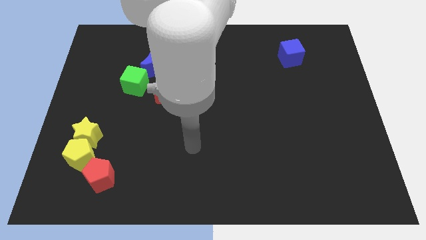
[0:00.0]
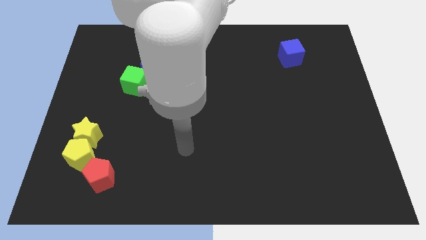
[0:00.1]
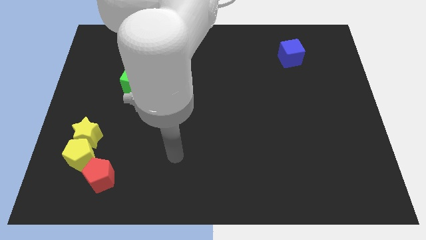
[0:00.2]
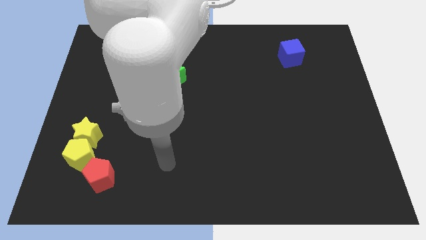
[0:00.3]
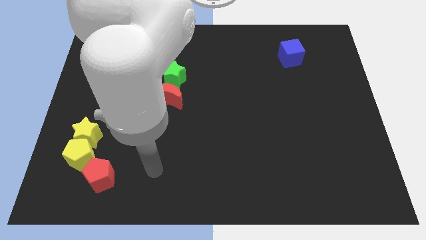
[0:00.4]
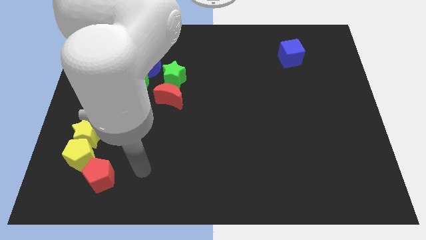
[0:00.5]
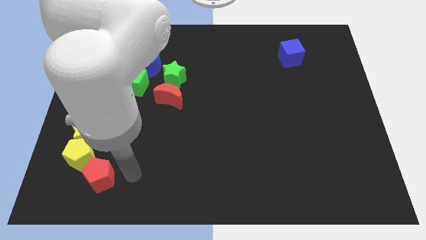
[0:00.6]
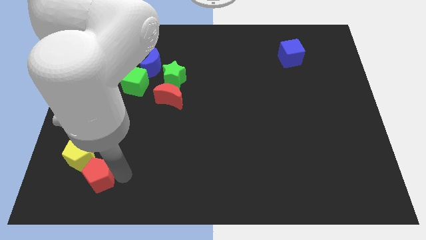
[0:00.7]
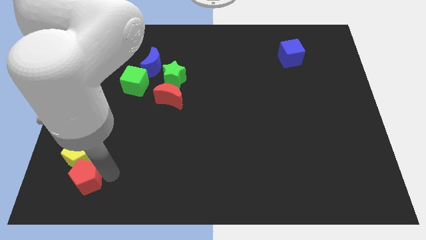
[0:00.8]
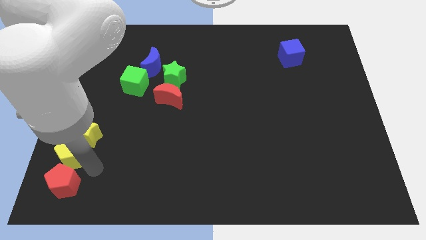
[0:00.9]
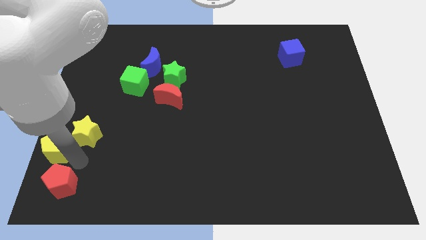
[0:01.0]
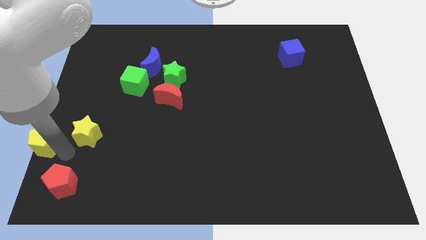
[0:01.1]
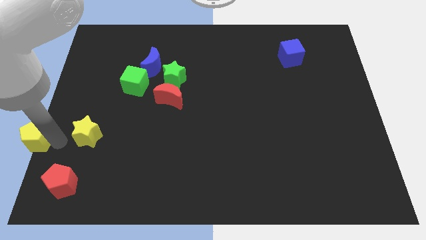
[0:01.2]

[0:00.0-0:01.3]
pull the yellow star apart from the yellow pentagon

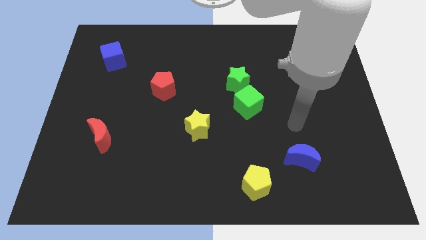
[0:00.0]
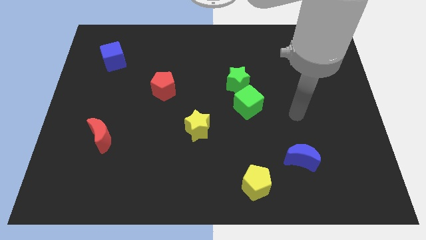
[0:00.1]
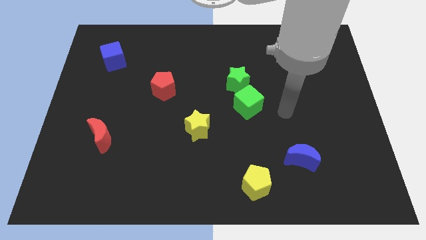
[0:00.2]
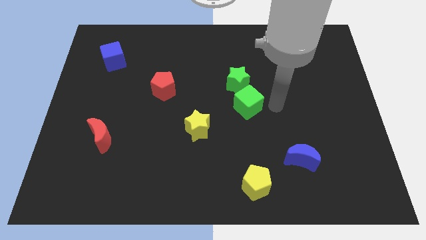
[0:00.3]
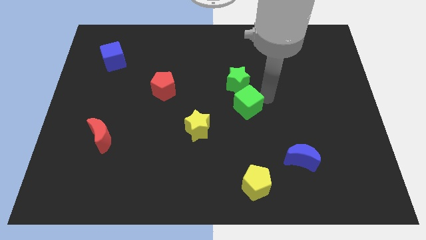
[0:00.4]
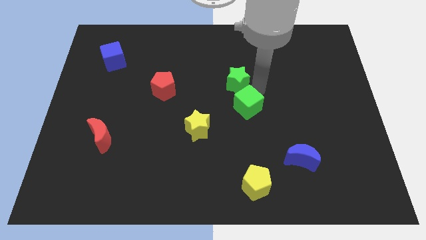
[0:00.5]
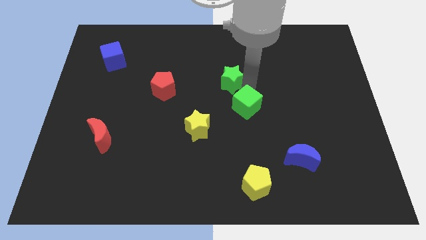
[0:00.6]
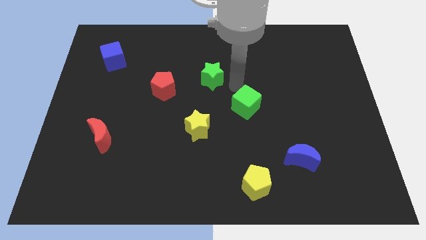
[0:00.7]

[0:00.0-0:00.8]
pull the green cube apart from the green star

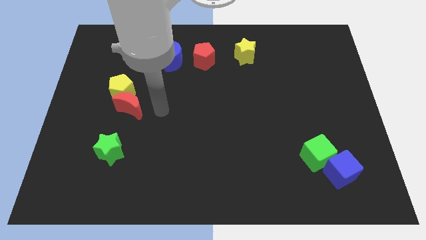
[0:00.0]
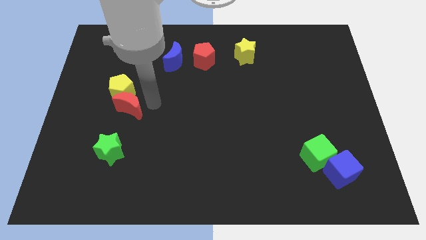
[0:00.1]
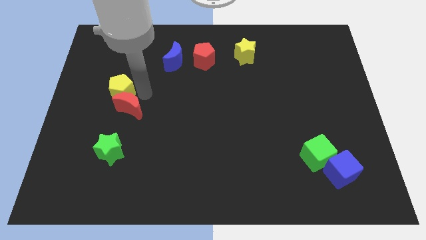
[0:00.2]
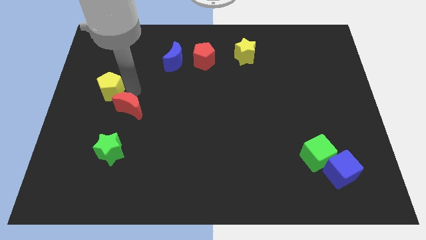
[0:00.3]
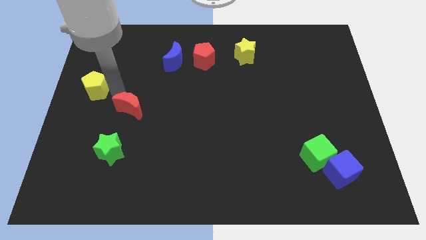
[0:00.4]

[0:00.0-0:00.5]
move the red moon away from the yellow pentagon

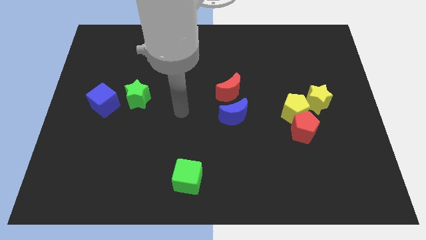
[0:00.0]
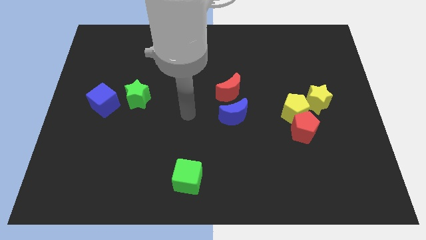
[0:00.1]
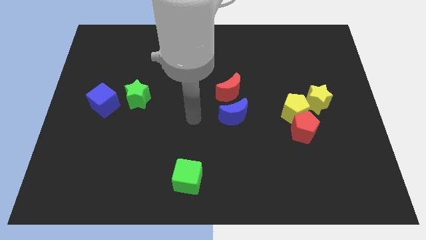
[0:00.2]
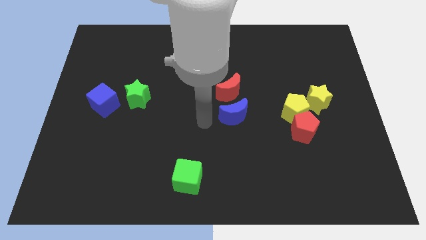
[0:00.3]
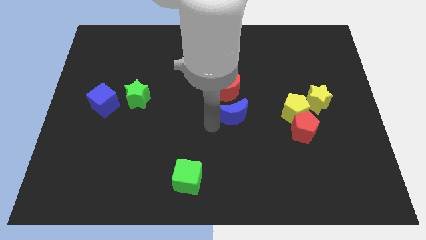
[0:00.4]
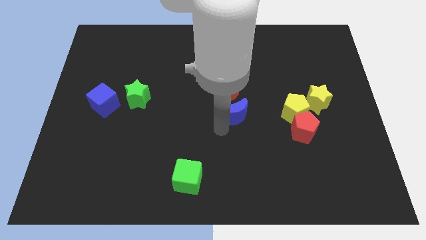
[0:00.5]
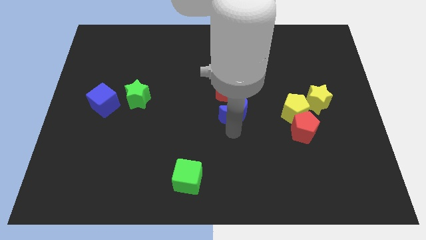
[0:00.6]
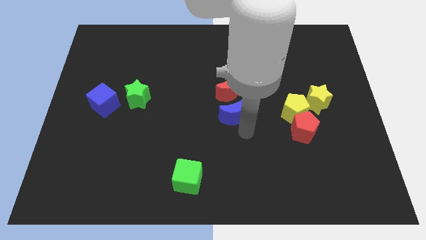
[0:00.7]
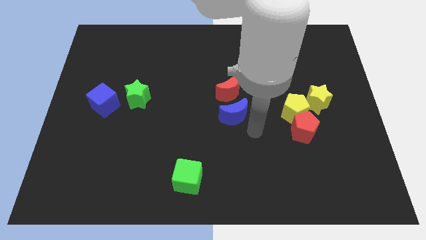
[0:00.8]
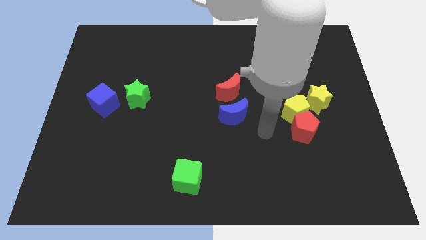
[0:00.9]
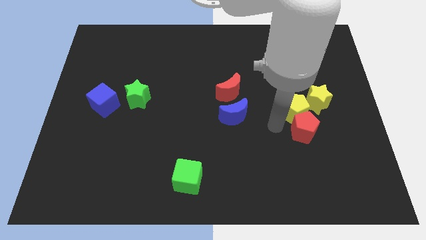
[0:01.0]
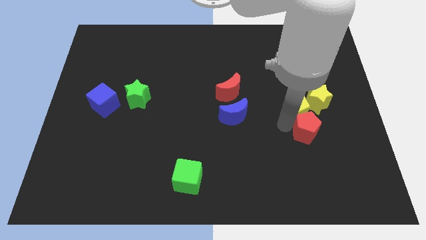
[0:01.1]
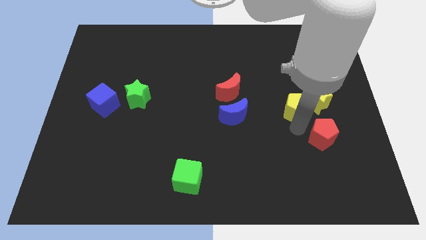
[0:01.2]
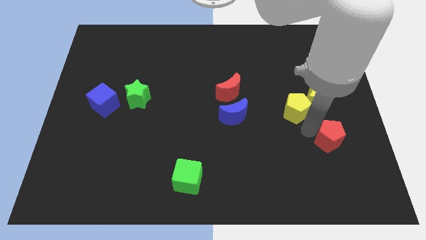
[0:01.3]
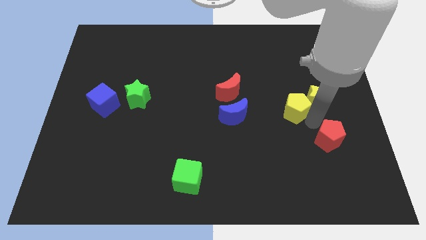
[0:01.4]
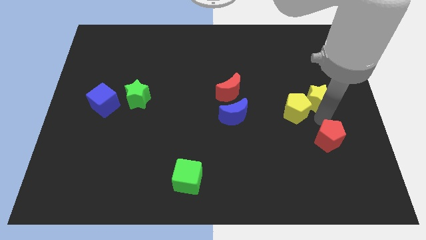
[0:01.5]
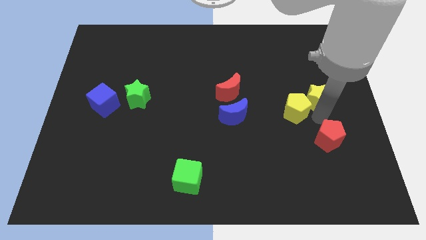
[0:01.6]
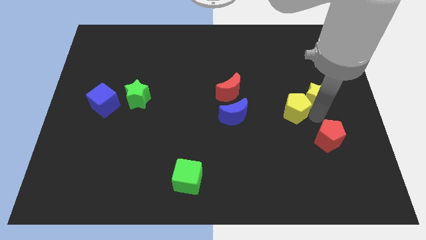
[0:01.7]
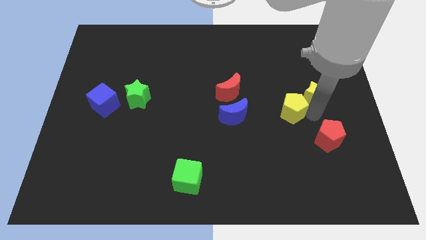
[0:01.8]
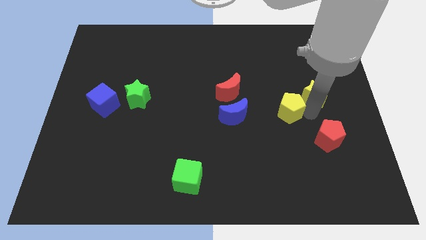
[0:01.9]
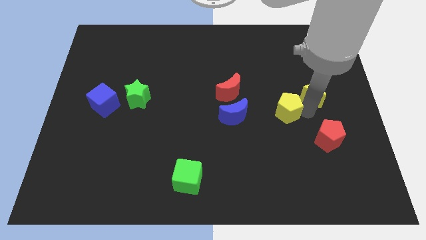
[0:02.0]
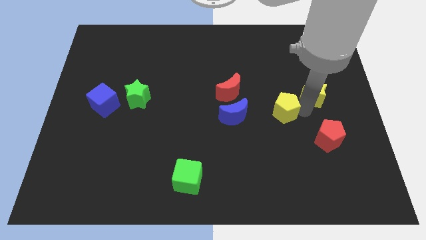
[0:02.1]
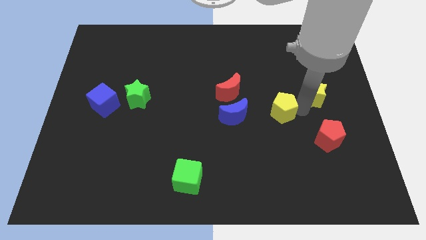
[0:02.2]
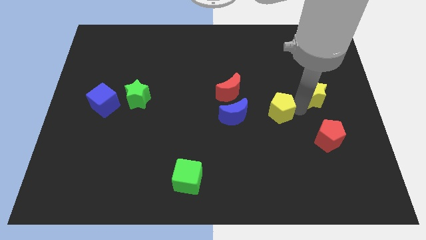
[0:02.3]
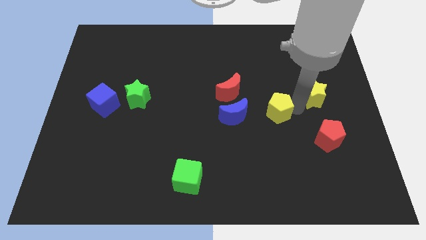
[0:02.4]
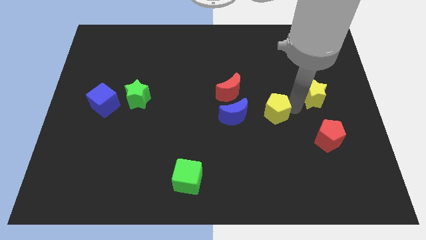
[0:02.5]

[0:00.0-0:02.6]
separate the yellow pentagon from the red pentagon and yellow star

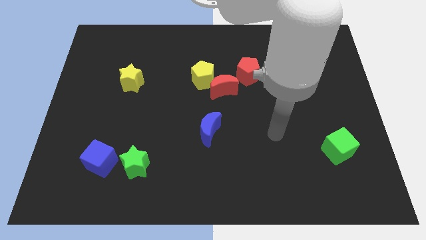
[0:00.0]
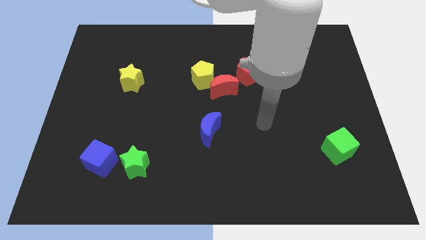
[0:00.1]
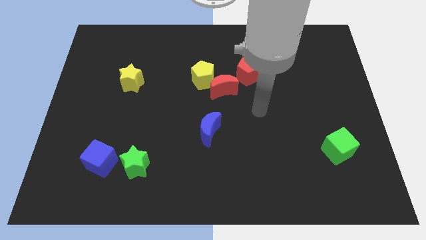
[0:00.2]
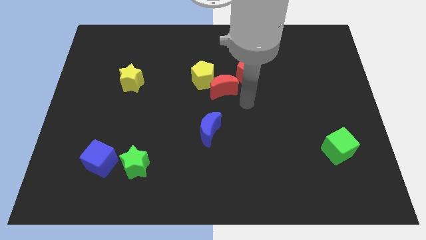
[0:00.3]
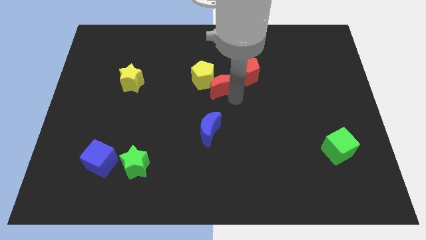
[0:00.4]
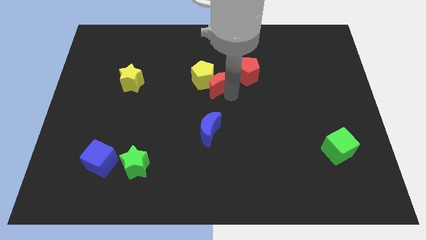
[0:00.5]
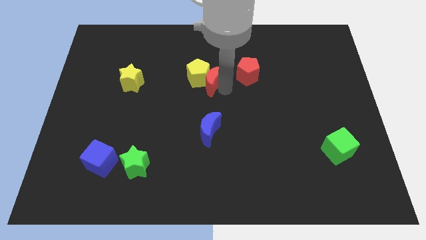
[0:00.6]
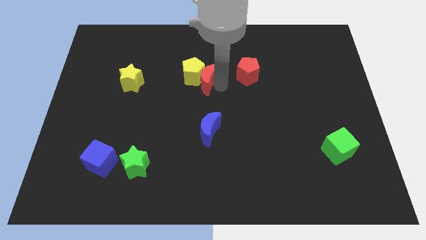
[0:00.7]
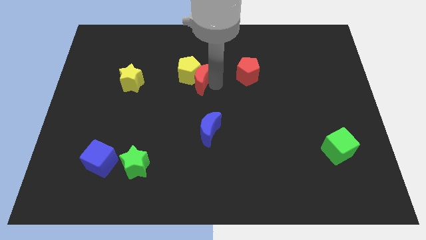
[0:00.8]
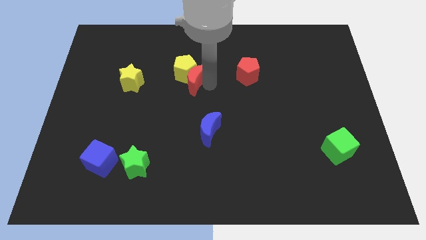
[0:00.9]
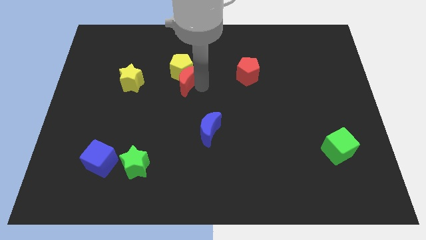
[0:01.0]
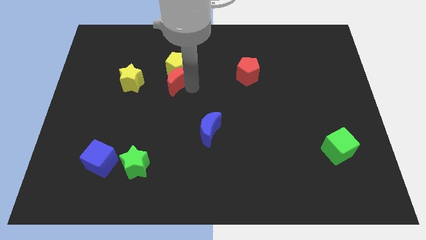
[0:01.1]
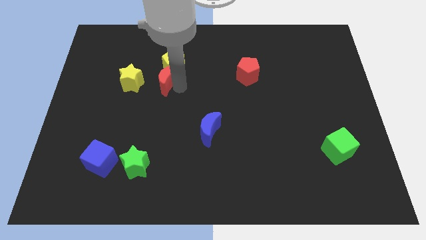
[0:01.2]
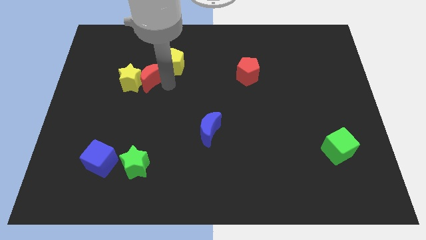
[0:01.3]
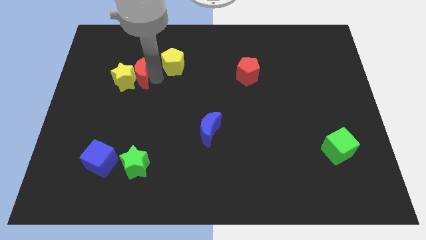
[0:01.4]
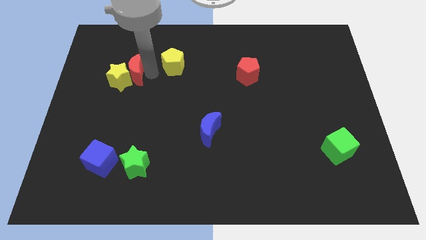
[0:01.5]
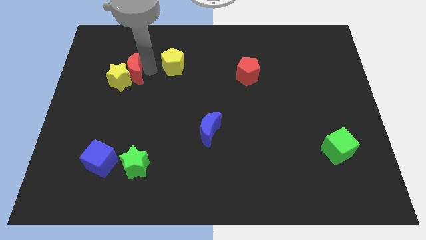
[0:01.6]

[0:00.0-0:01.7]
pull the yellow pentagon apart from the red moon

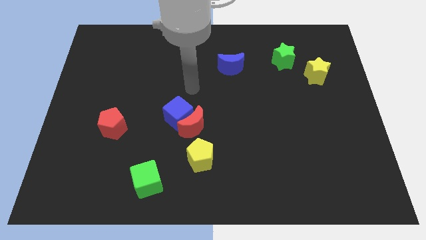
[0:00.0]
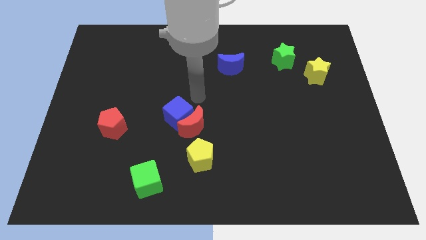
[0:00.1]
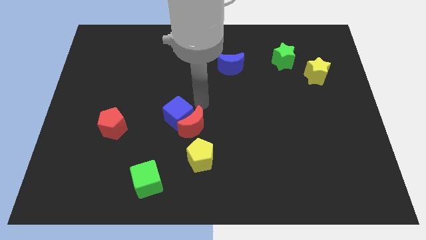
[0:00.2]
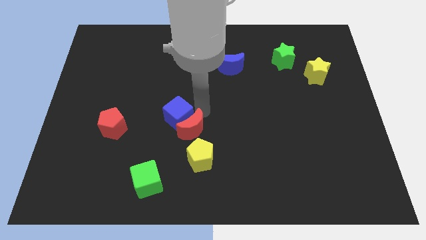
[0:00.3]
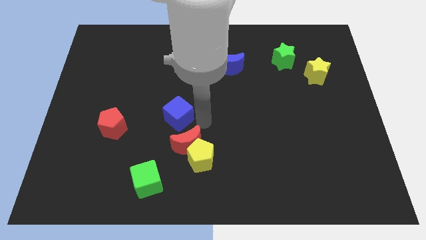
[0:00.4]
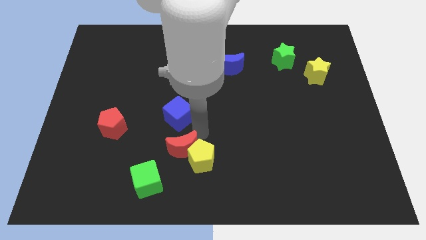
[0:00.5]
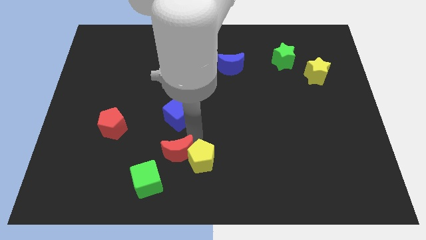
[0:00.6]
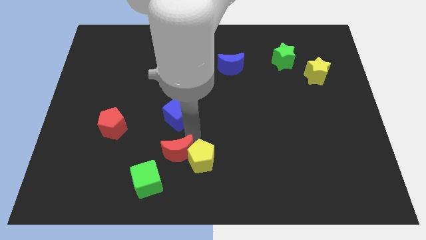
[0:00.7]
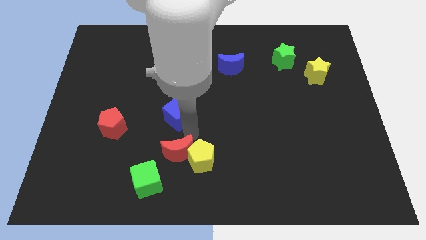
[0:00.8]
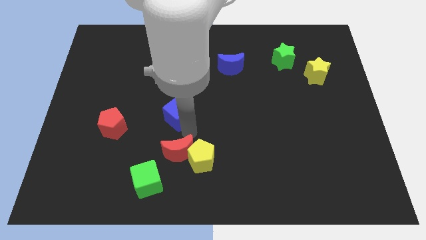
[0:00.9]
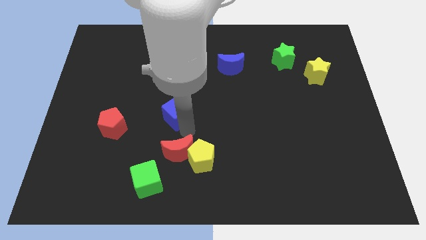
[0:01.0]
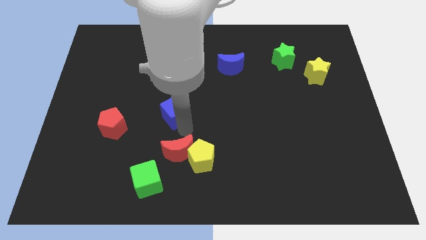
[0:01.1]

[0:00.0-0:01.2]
move the blue cube away from the red moon

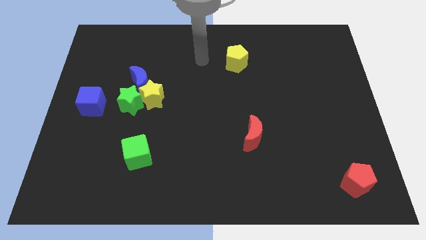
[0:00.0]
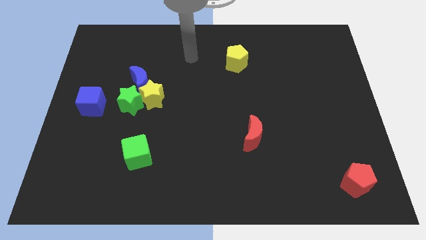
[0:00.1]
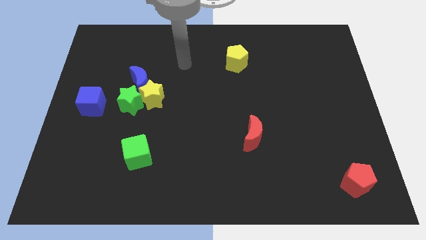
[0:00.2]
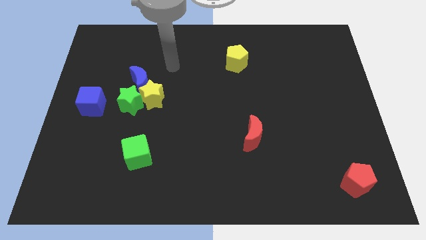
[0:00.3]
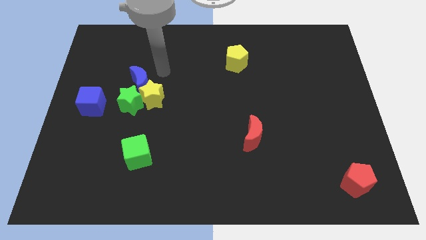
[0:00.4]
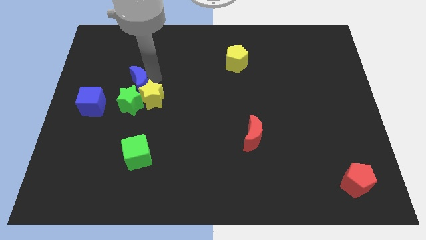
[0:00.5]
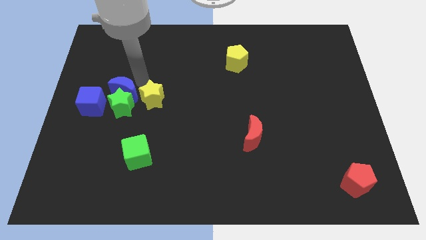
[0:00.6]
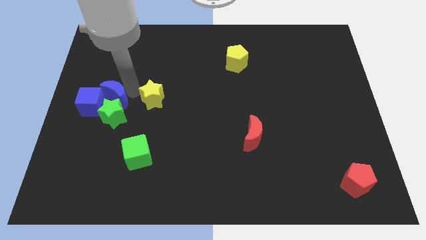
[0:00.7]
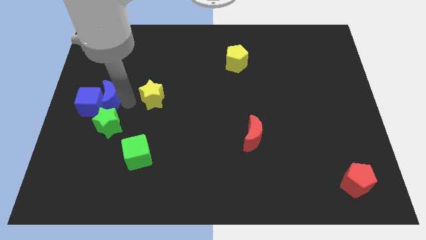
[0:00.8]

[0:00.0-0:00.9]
separate the yellow star from the green star and blue moon

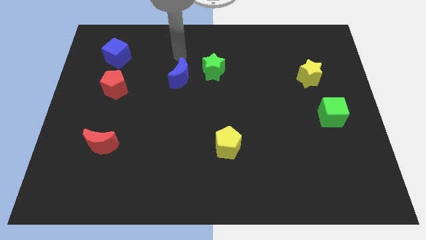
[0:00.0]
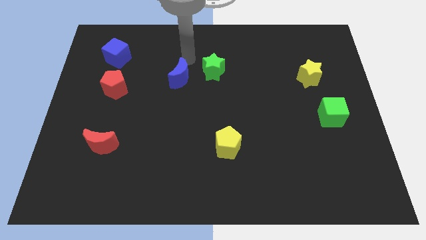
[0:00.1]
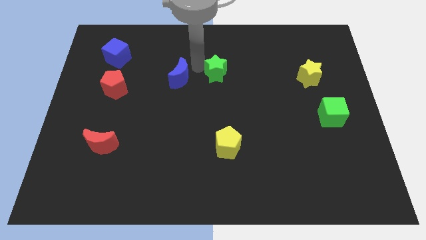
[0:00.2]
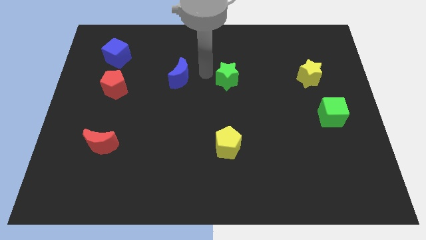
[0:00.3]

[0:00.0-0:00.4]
separate the blue moon from the green star
